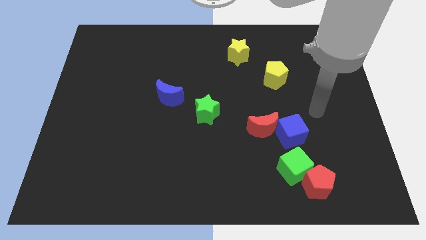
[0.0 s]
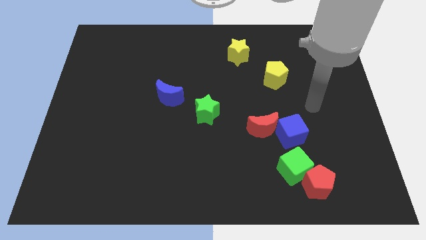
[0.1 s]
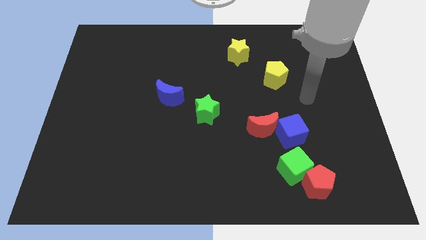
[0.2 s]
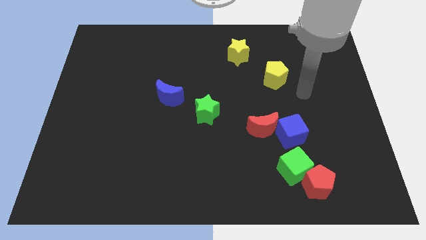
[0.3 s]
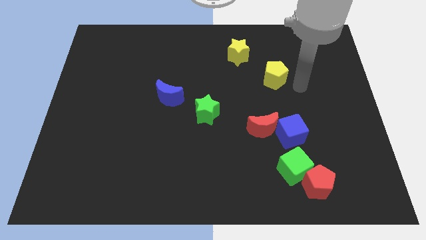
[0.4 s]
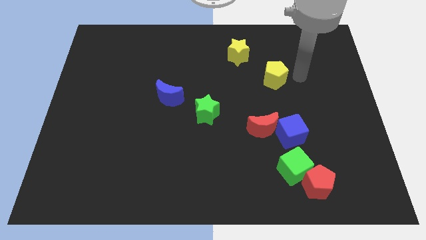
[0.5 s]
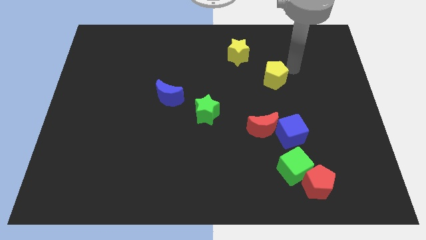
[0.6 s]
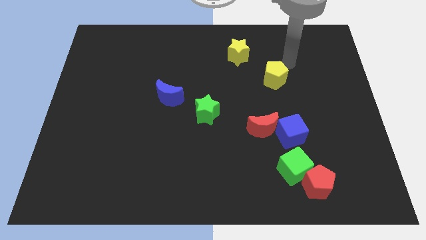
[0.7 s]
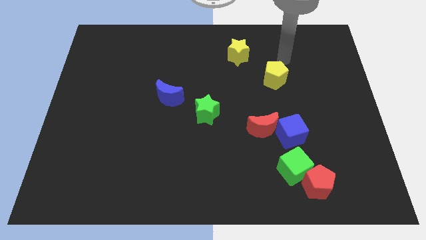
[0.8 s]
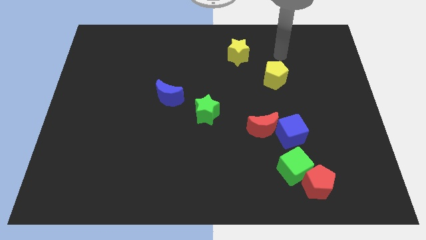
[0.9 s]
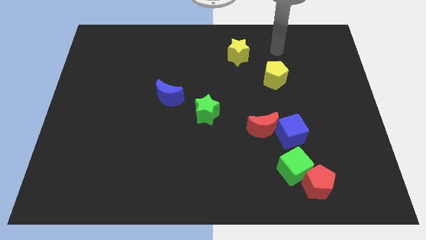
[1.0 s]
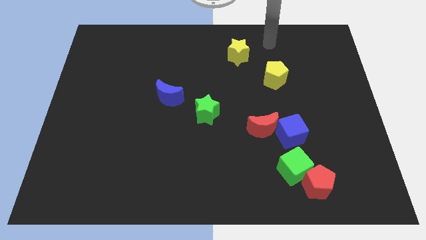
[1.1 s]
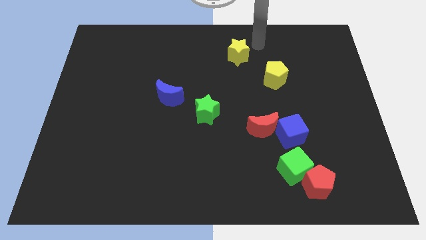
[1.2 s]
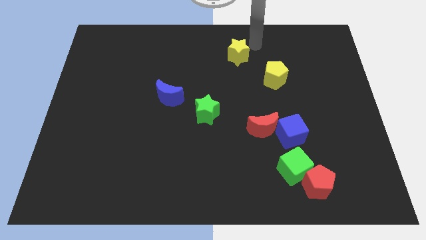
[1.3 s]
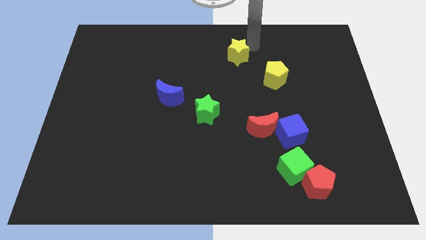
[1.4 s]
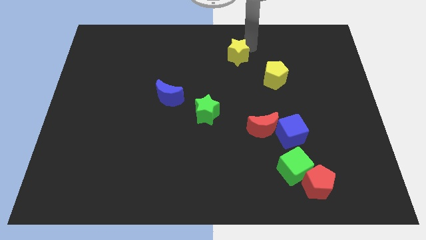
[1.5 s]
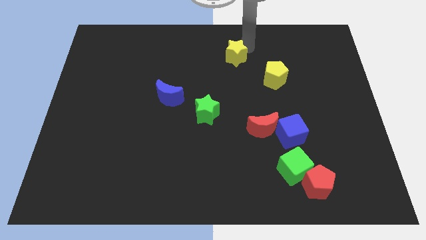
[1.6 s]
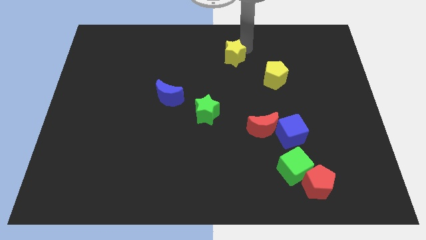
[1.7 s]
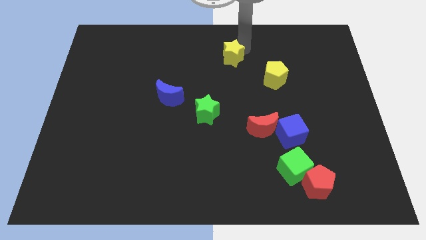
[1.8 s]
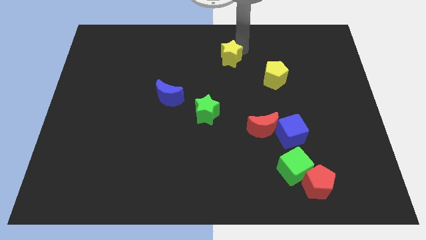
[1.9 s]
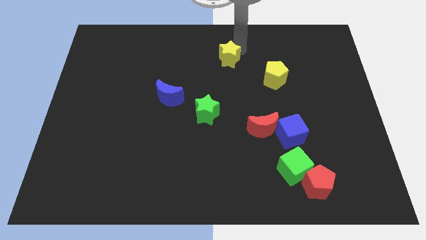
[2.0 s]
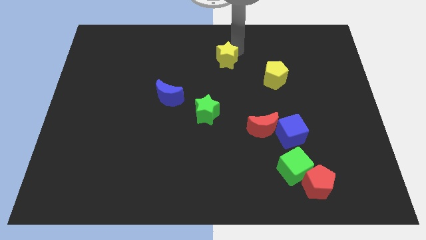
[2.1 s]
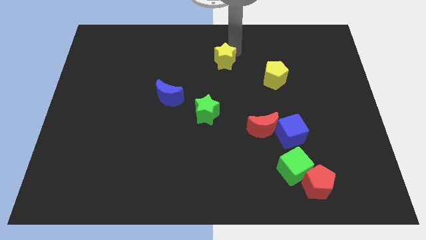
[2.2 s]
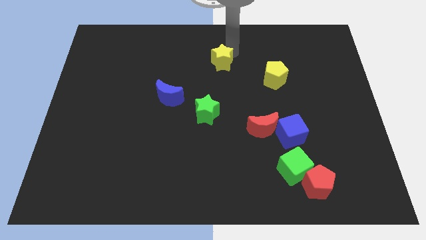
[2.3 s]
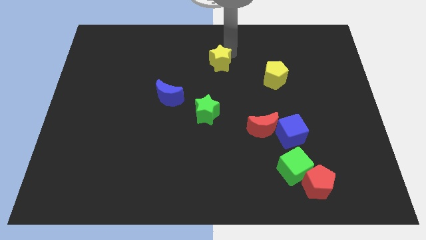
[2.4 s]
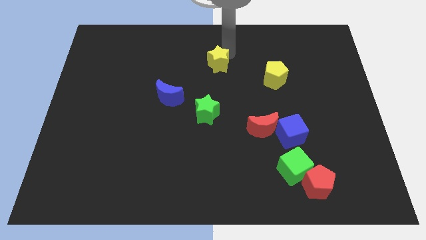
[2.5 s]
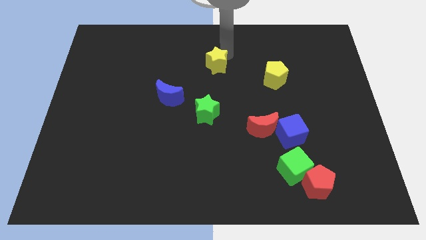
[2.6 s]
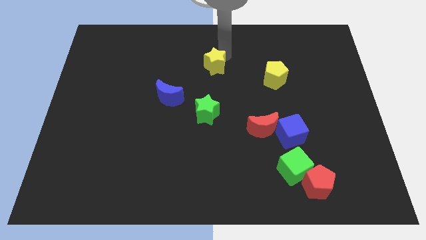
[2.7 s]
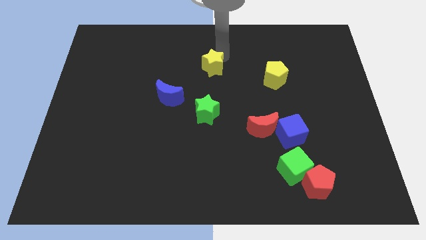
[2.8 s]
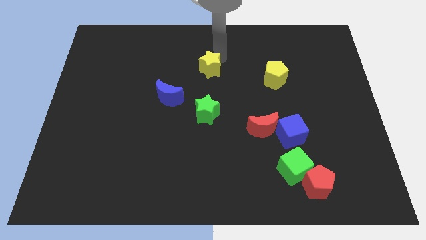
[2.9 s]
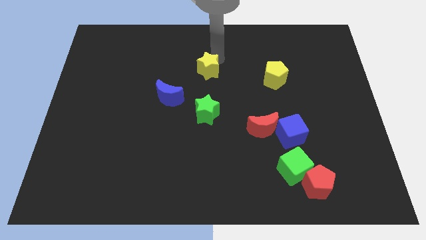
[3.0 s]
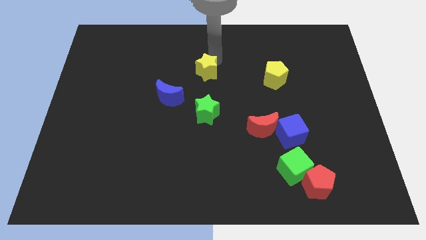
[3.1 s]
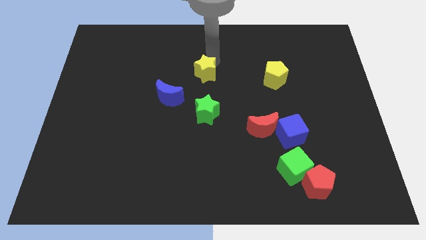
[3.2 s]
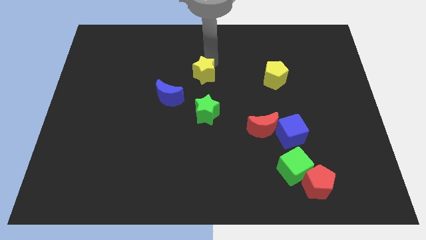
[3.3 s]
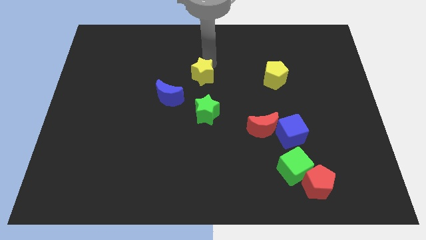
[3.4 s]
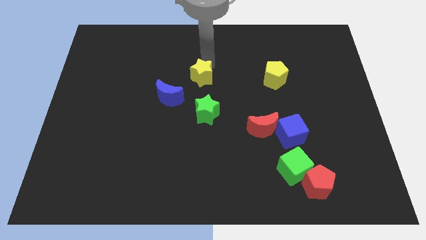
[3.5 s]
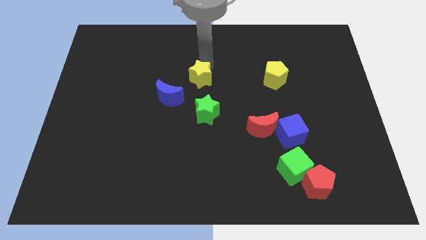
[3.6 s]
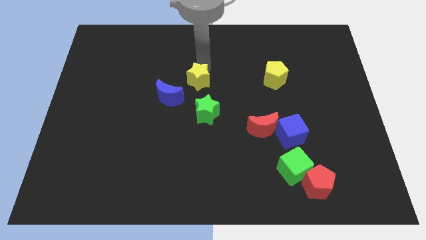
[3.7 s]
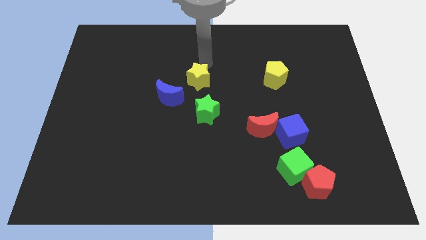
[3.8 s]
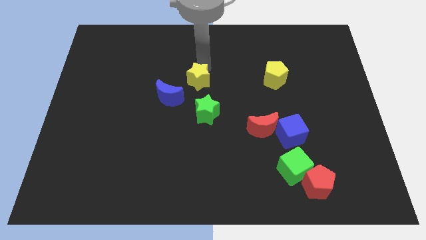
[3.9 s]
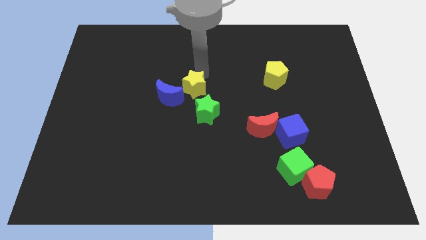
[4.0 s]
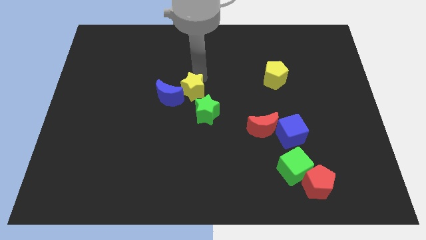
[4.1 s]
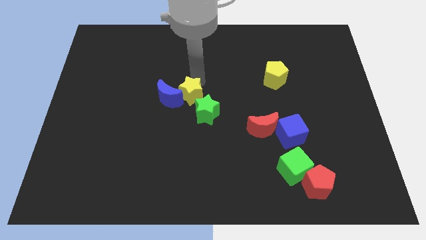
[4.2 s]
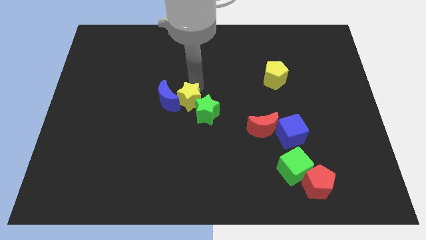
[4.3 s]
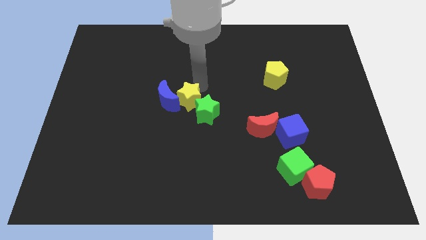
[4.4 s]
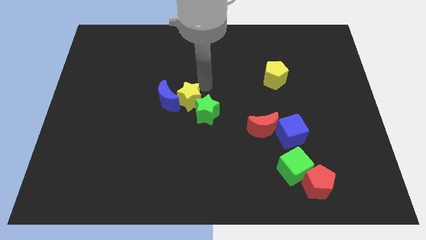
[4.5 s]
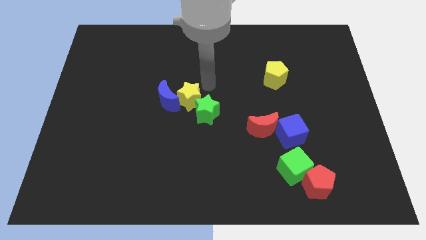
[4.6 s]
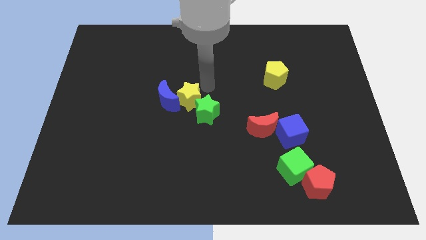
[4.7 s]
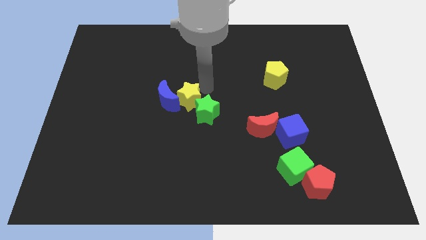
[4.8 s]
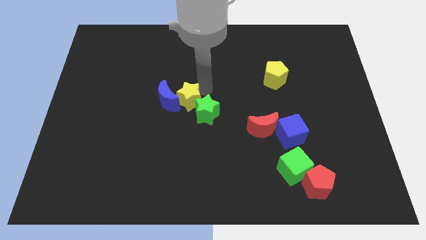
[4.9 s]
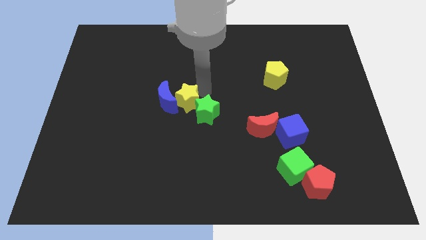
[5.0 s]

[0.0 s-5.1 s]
slide the yellow star diagonally down and left

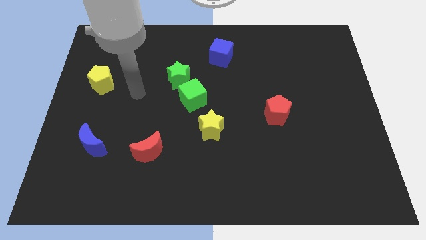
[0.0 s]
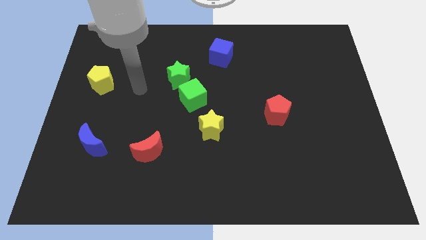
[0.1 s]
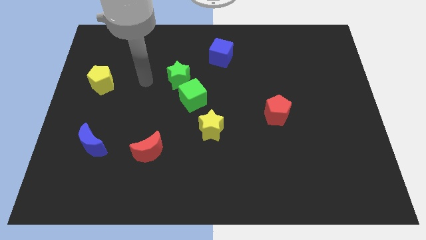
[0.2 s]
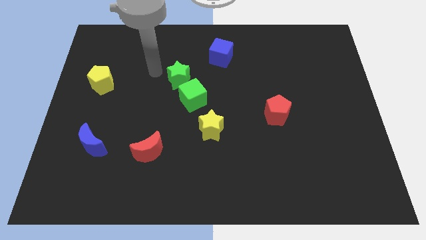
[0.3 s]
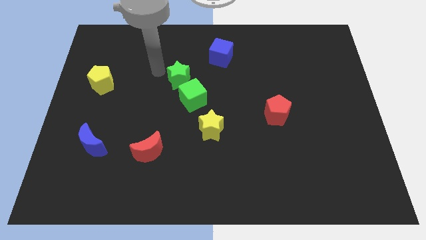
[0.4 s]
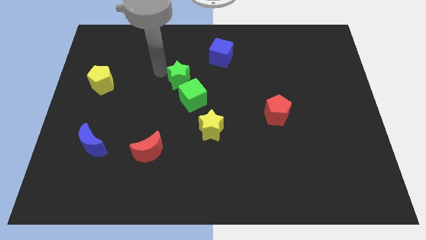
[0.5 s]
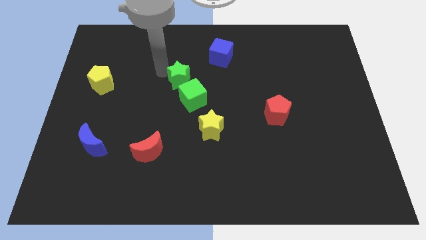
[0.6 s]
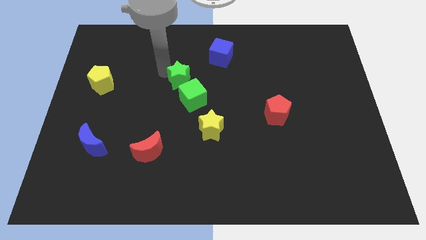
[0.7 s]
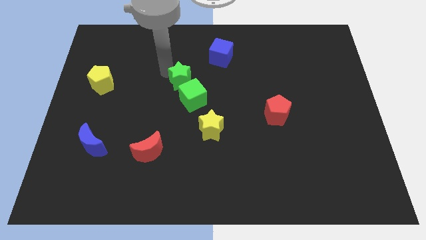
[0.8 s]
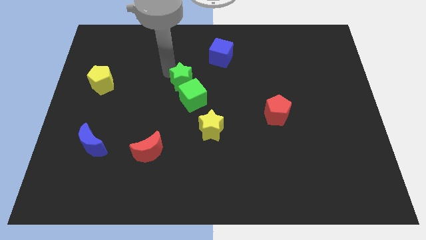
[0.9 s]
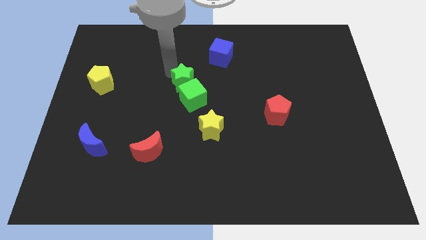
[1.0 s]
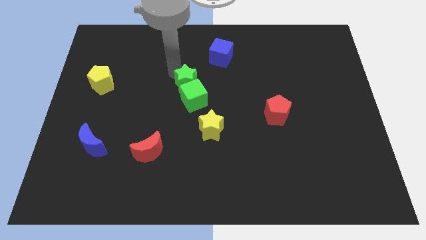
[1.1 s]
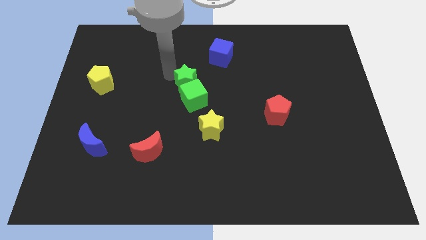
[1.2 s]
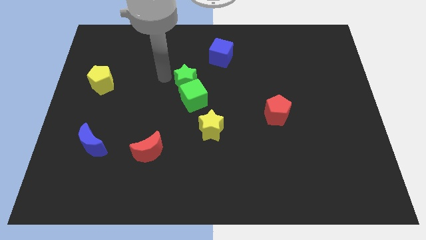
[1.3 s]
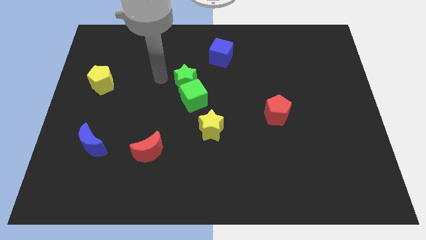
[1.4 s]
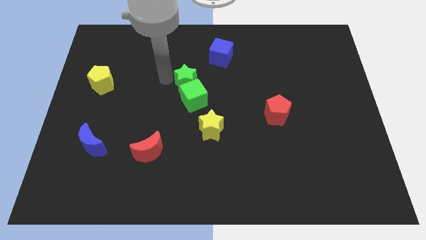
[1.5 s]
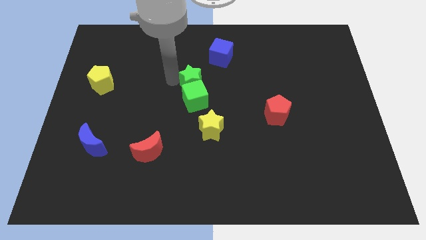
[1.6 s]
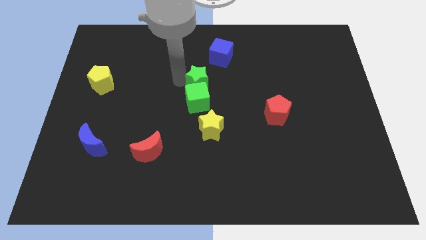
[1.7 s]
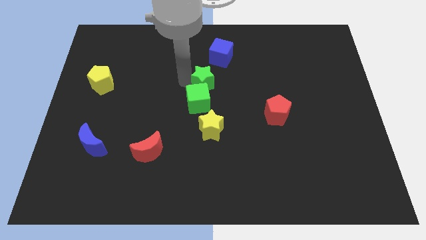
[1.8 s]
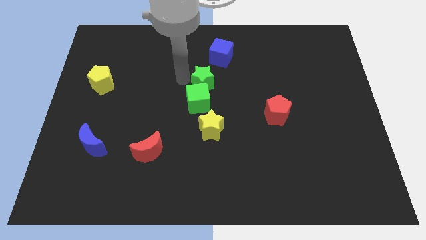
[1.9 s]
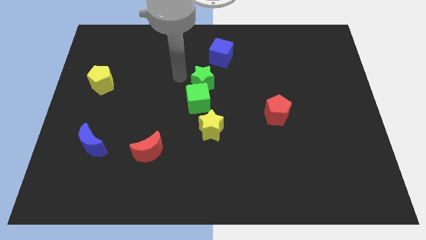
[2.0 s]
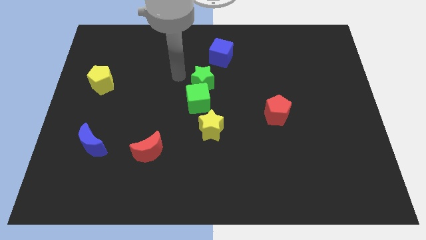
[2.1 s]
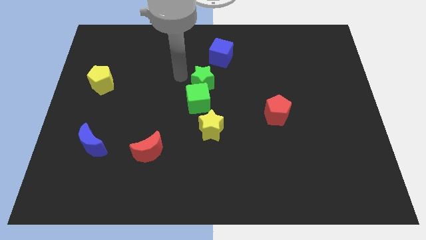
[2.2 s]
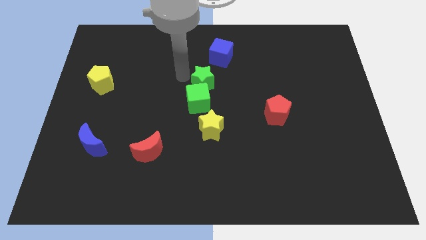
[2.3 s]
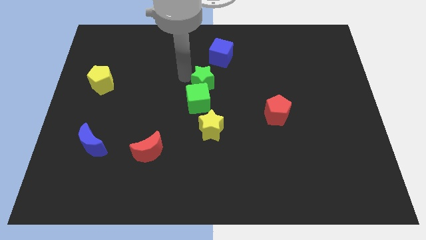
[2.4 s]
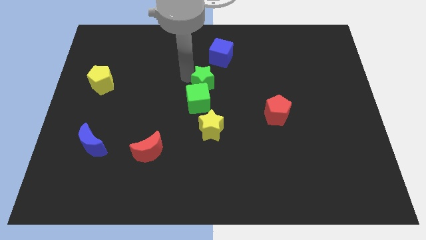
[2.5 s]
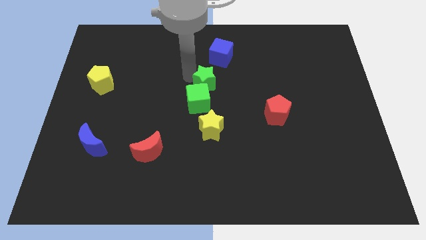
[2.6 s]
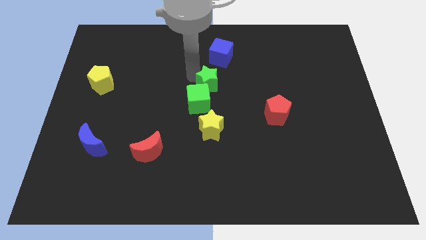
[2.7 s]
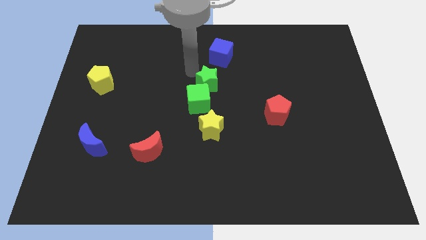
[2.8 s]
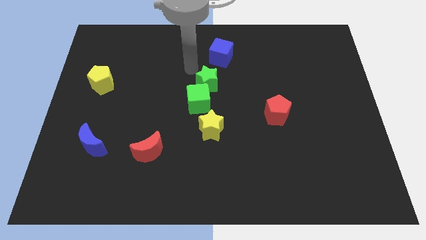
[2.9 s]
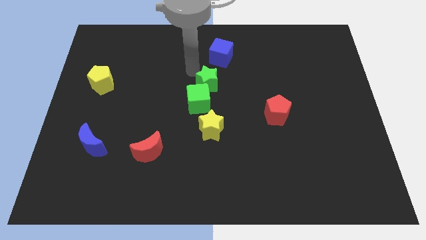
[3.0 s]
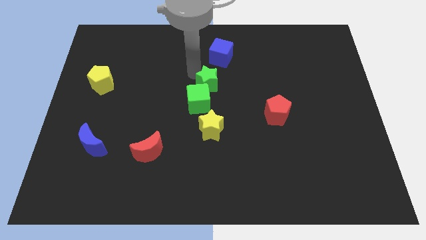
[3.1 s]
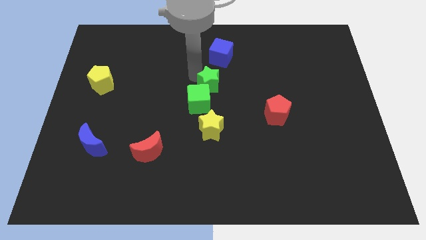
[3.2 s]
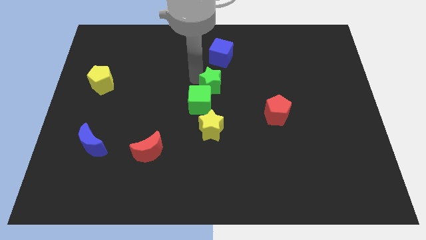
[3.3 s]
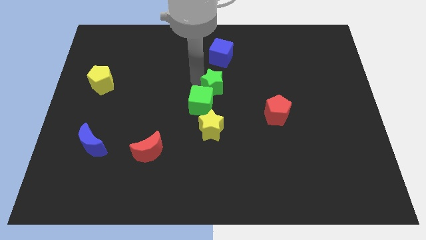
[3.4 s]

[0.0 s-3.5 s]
slightly move the green star downwards and right
